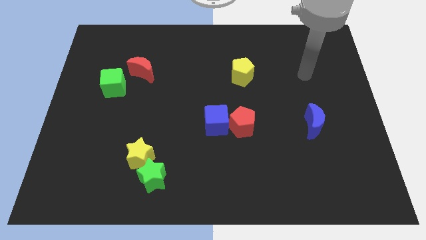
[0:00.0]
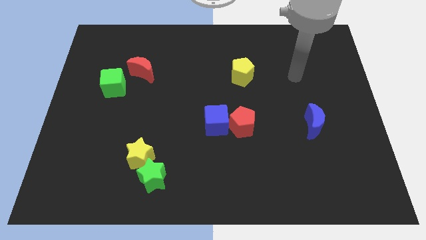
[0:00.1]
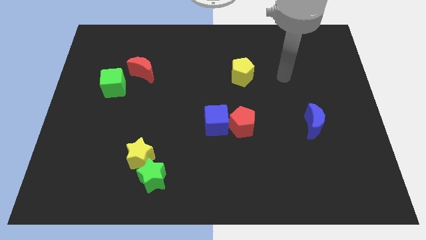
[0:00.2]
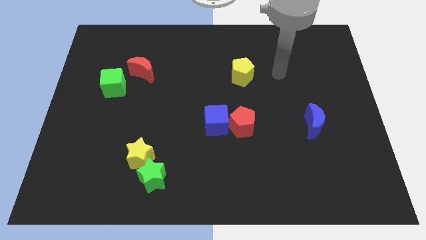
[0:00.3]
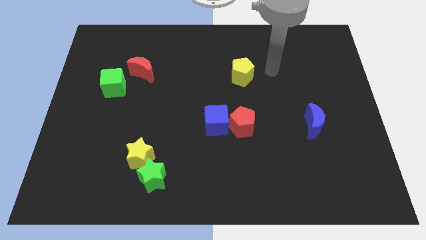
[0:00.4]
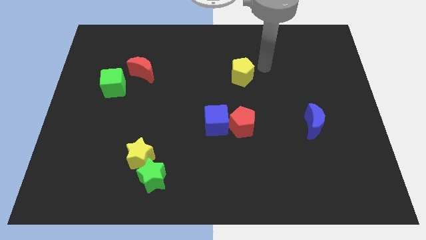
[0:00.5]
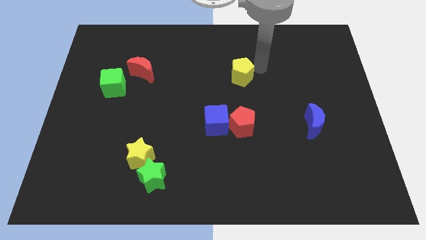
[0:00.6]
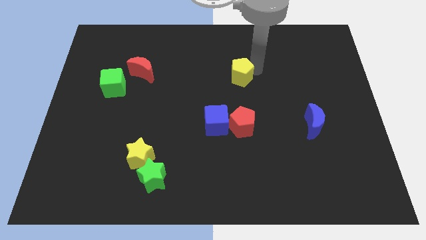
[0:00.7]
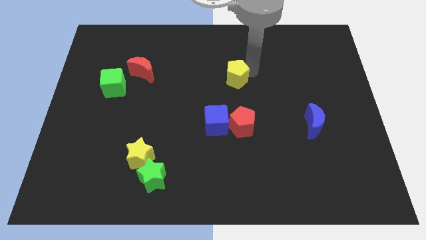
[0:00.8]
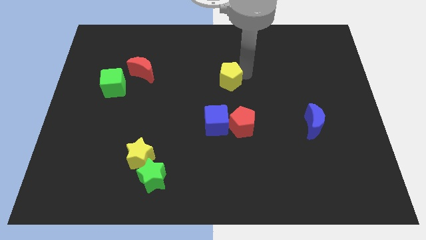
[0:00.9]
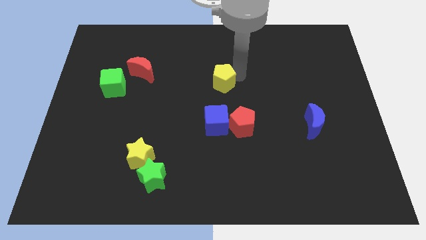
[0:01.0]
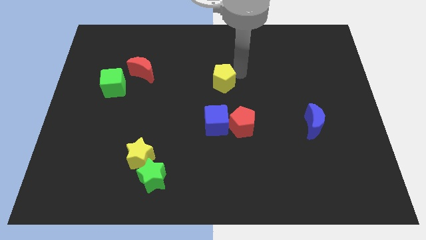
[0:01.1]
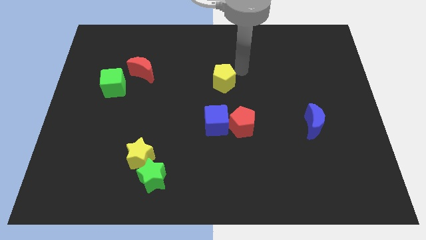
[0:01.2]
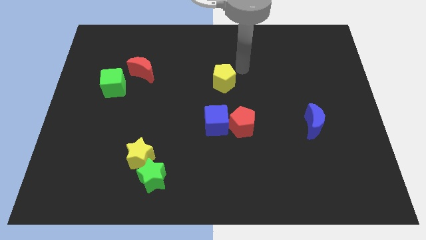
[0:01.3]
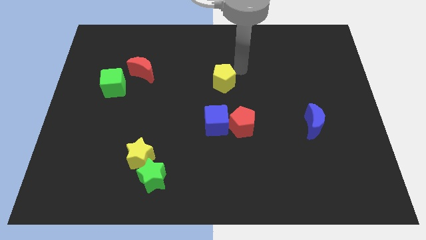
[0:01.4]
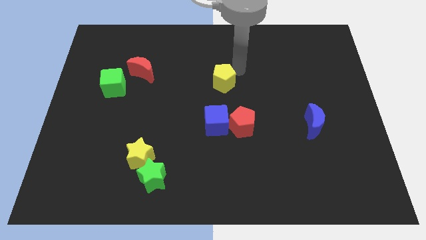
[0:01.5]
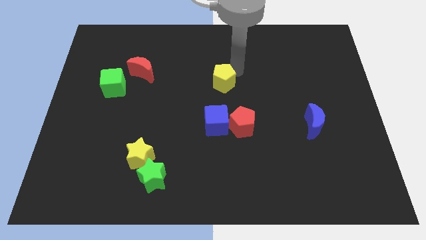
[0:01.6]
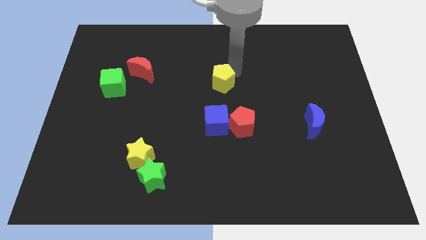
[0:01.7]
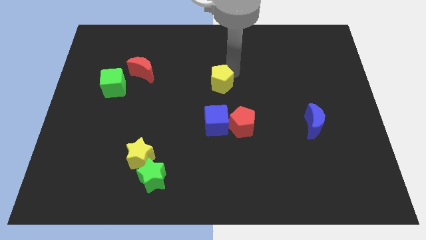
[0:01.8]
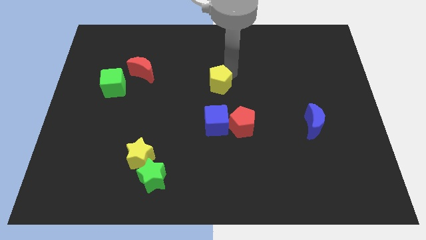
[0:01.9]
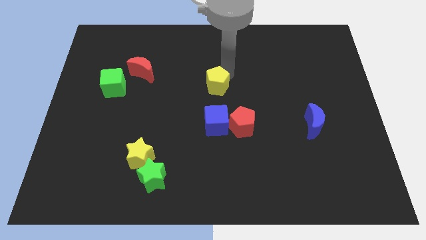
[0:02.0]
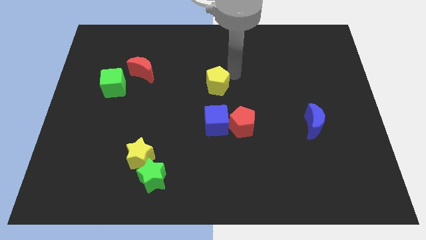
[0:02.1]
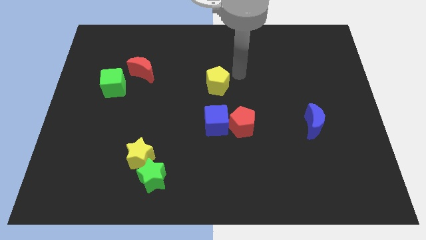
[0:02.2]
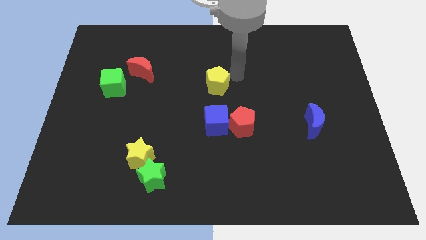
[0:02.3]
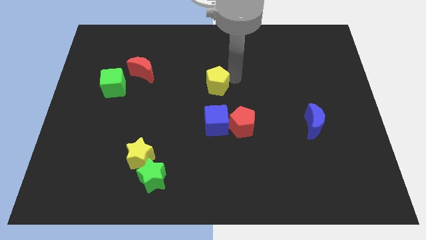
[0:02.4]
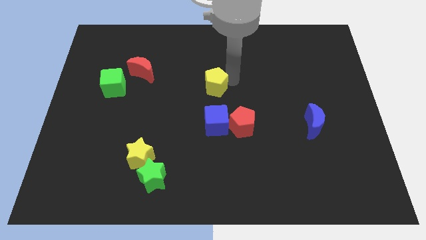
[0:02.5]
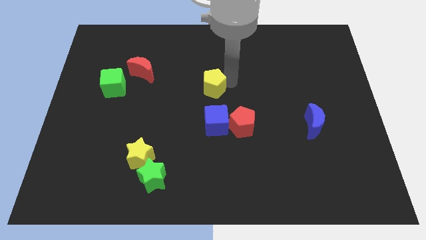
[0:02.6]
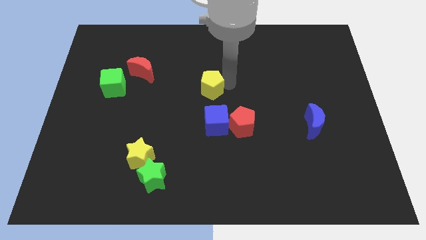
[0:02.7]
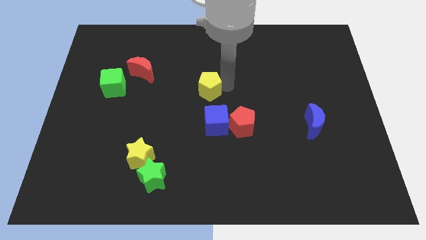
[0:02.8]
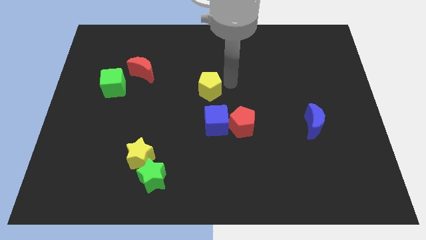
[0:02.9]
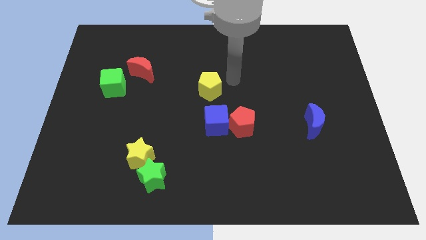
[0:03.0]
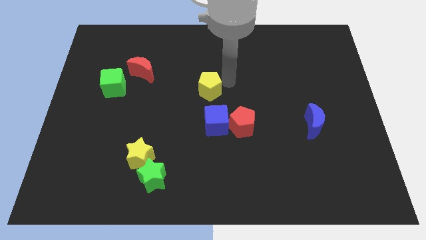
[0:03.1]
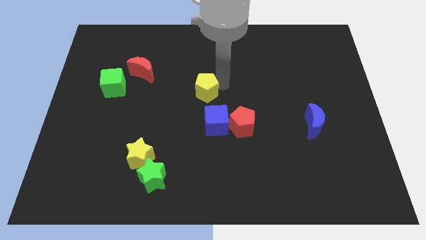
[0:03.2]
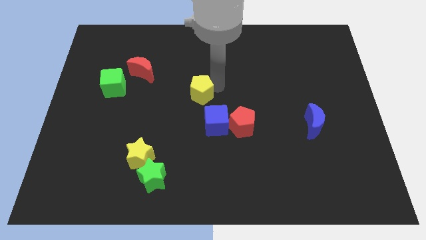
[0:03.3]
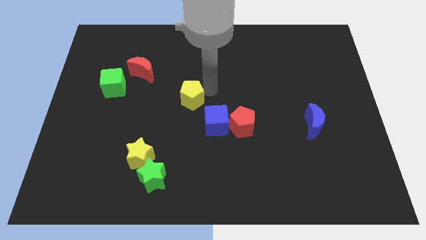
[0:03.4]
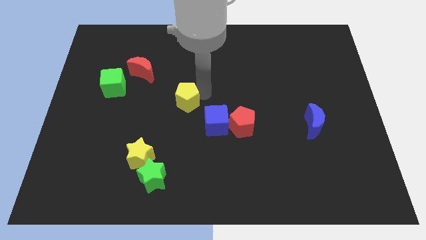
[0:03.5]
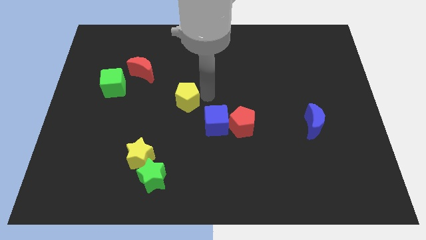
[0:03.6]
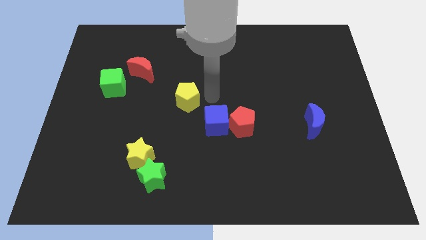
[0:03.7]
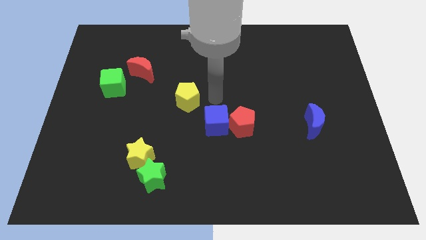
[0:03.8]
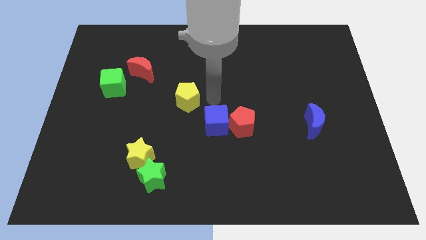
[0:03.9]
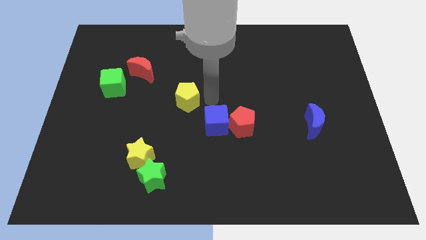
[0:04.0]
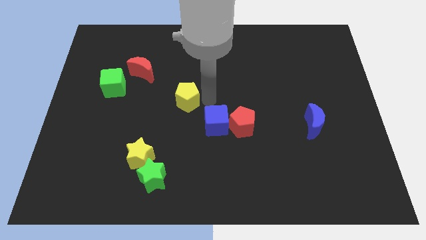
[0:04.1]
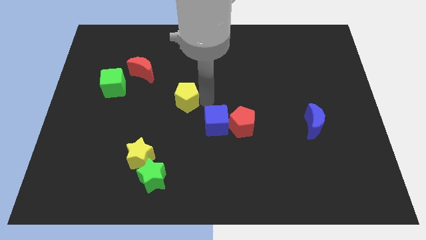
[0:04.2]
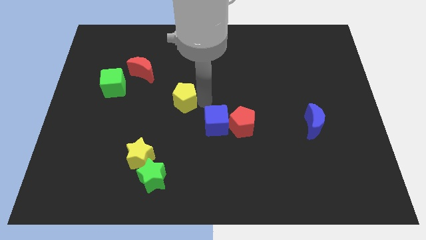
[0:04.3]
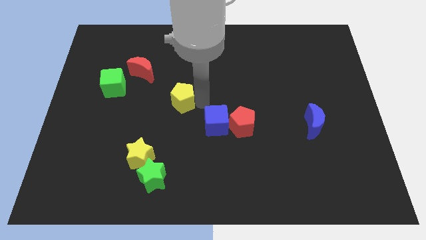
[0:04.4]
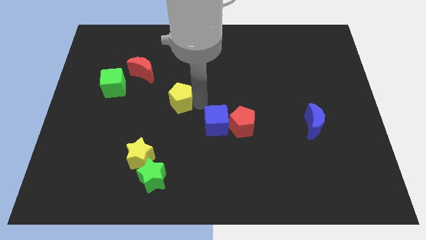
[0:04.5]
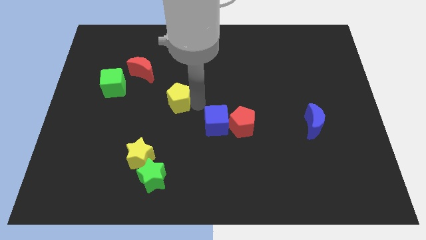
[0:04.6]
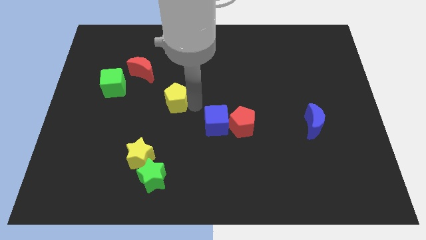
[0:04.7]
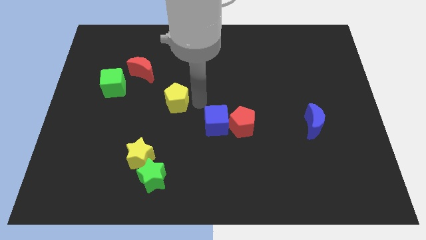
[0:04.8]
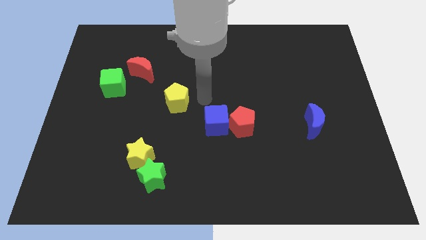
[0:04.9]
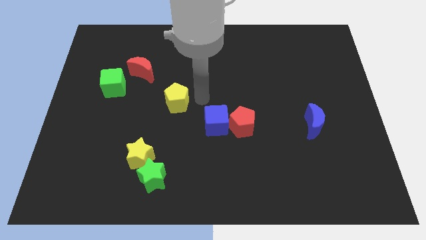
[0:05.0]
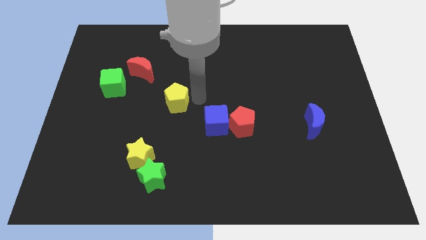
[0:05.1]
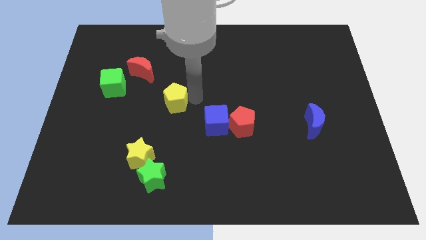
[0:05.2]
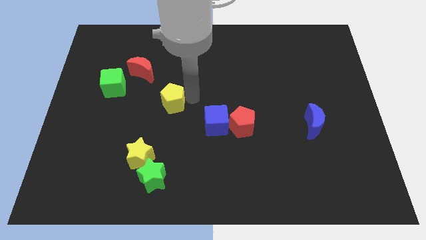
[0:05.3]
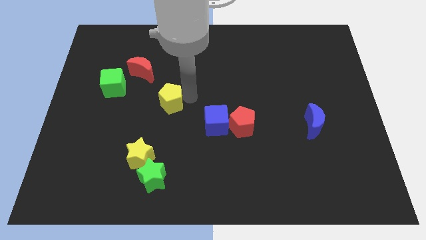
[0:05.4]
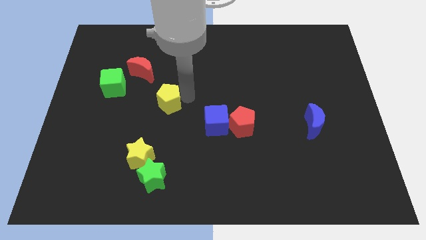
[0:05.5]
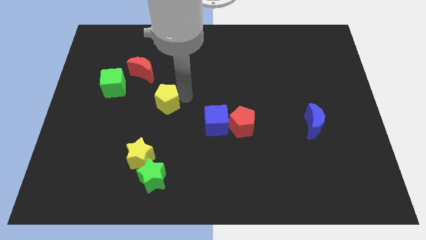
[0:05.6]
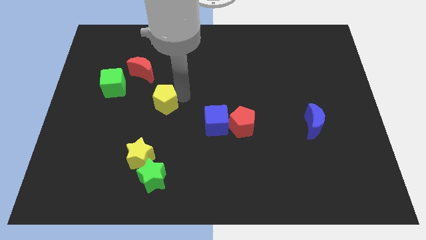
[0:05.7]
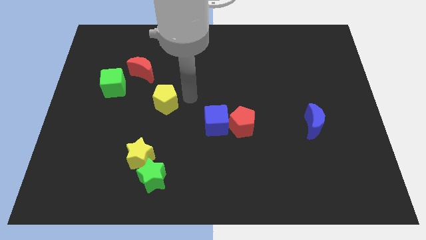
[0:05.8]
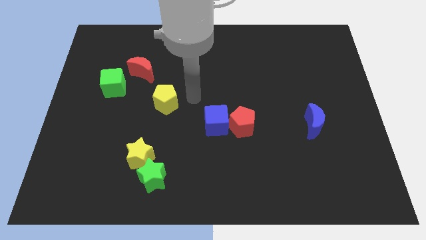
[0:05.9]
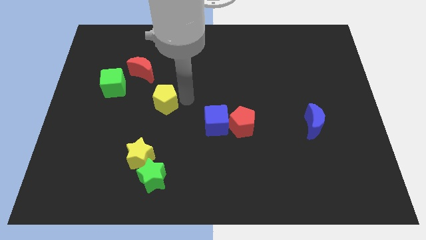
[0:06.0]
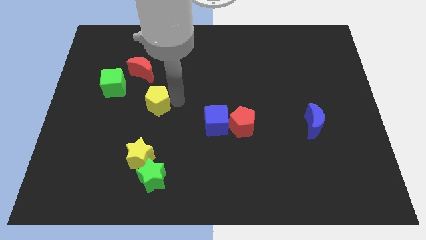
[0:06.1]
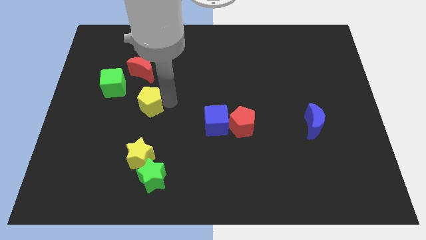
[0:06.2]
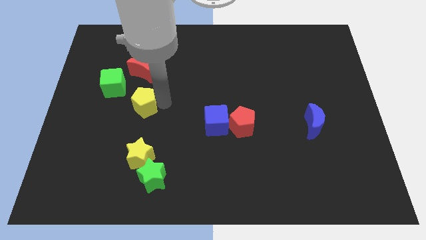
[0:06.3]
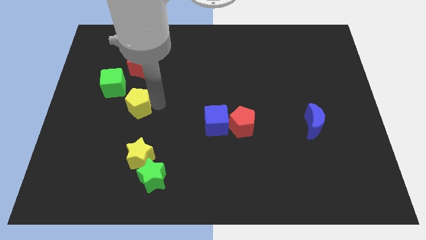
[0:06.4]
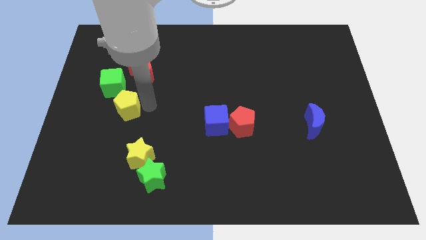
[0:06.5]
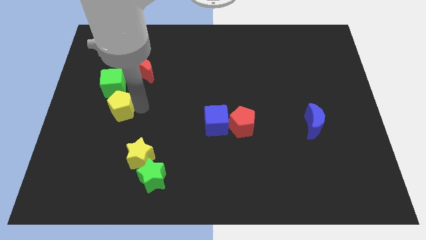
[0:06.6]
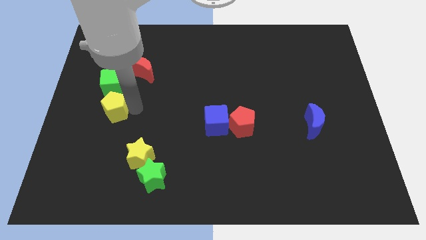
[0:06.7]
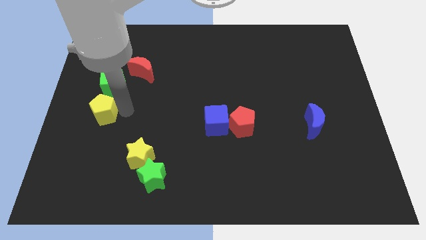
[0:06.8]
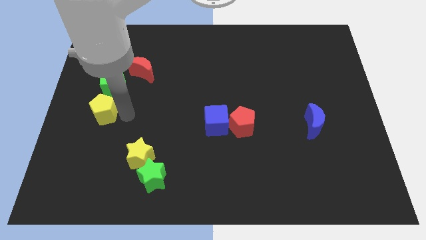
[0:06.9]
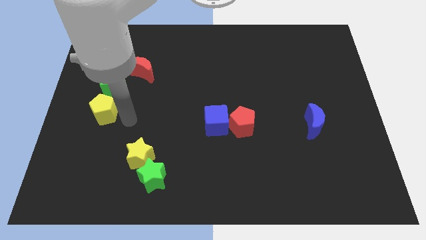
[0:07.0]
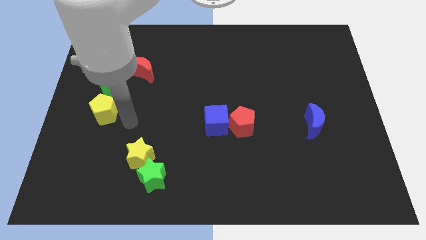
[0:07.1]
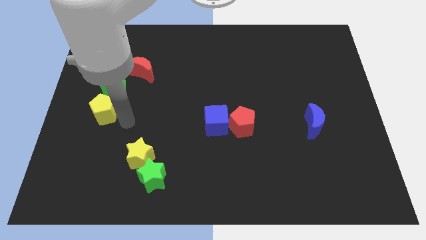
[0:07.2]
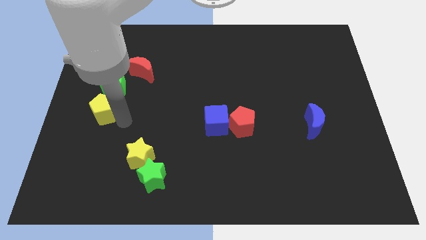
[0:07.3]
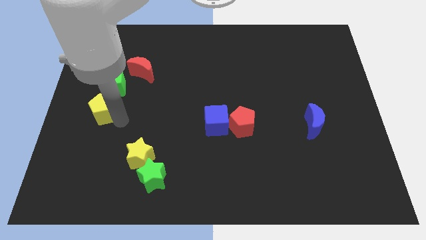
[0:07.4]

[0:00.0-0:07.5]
move the yellow pentagon to the left side of the board

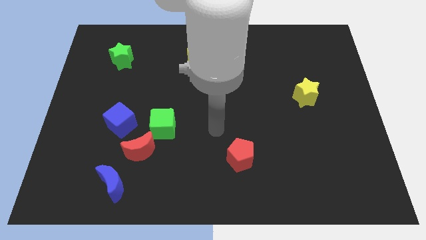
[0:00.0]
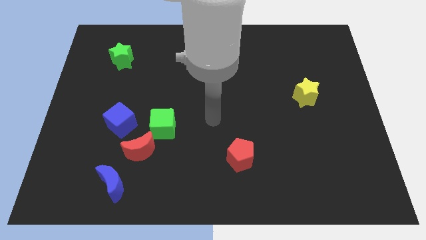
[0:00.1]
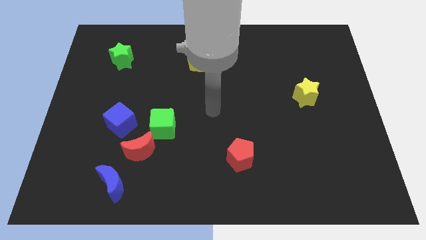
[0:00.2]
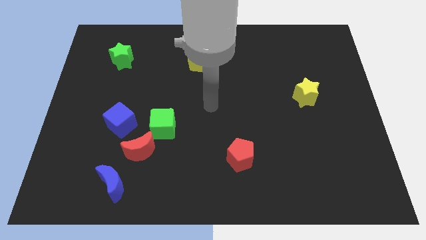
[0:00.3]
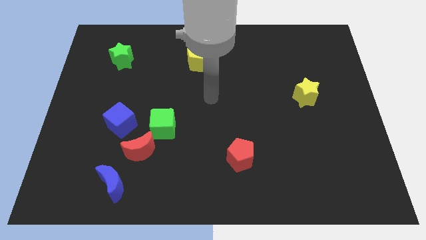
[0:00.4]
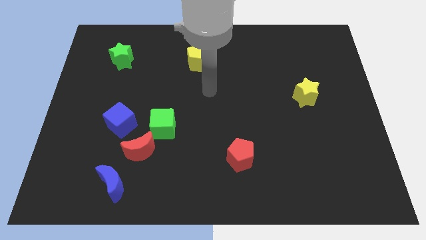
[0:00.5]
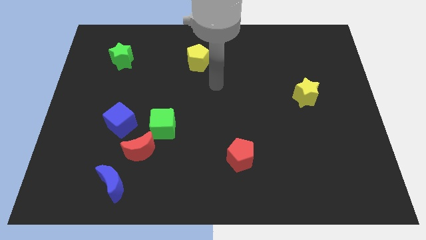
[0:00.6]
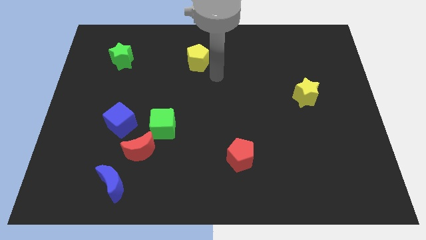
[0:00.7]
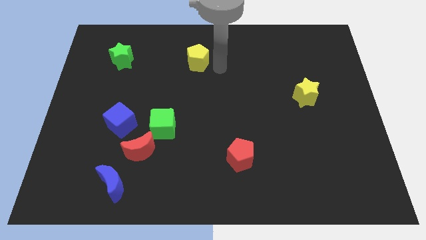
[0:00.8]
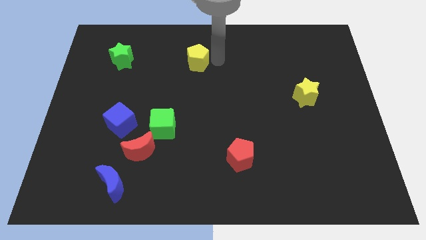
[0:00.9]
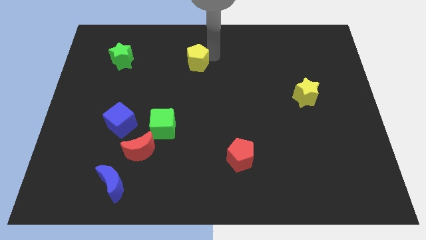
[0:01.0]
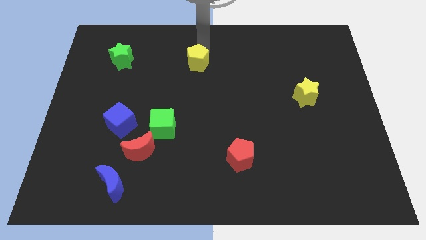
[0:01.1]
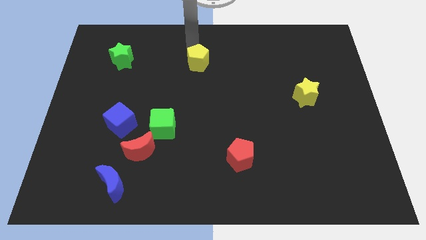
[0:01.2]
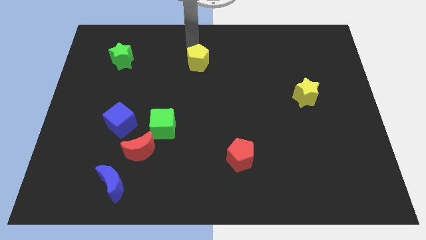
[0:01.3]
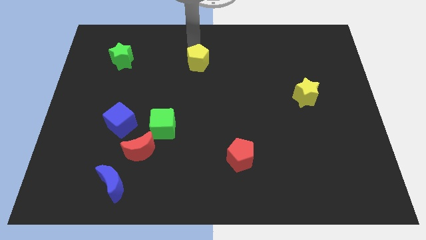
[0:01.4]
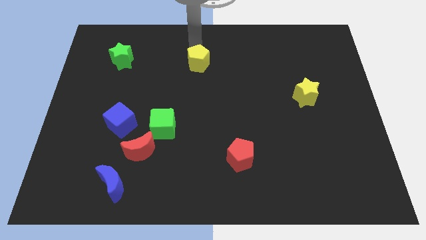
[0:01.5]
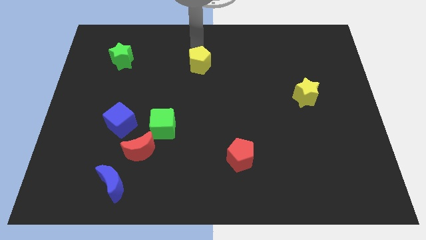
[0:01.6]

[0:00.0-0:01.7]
push the yellow pentagon to the center
